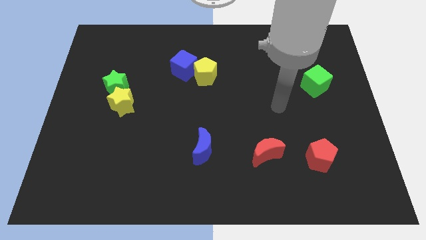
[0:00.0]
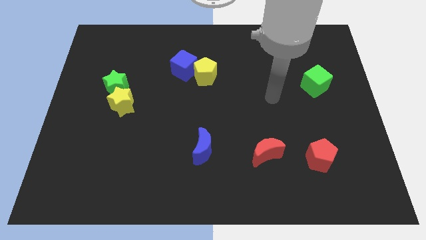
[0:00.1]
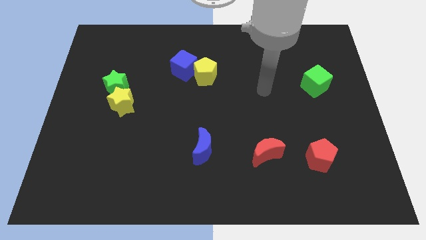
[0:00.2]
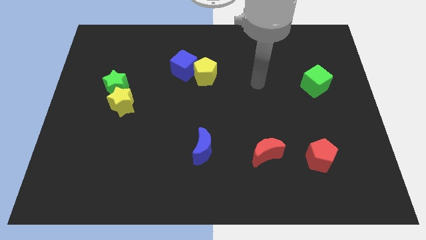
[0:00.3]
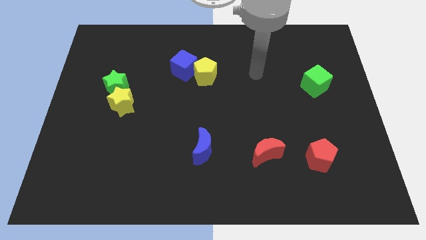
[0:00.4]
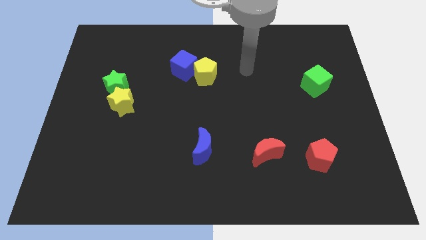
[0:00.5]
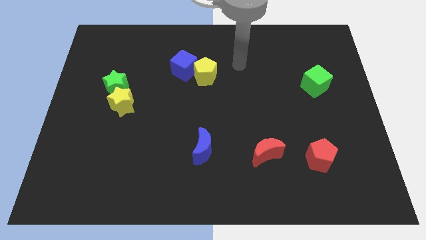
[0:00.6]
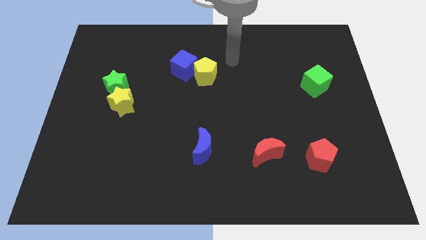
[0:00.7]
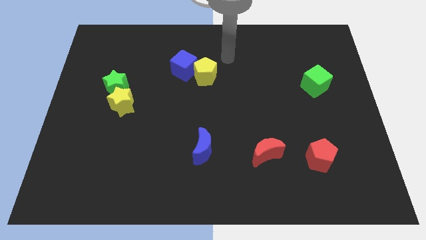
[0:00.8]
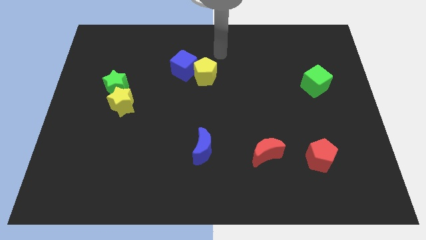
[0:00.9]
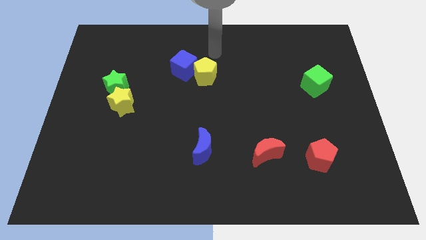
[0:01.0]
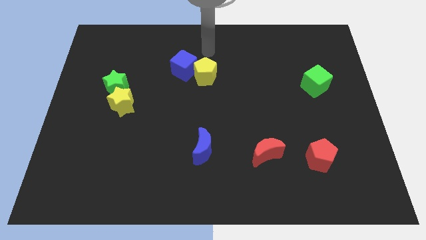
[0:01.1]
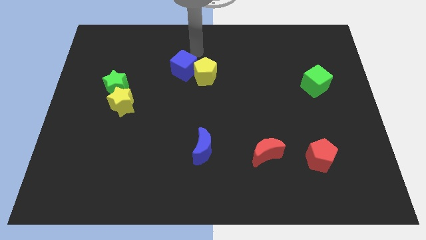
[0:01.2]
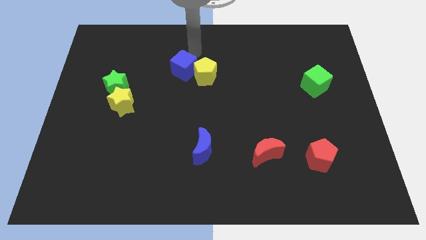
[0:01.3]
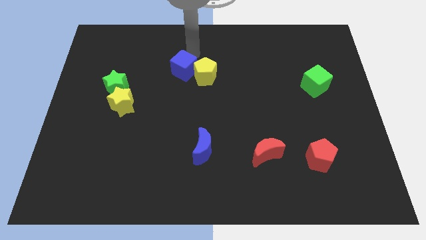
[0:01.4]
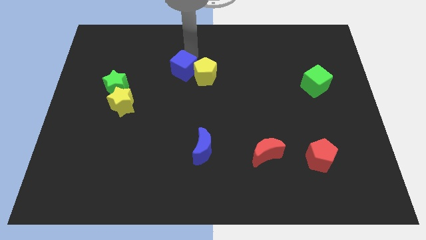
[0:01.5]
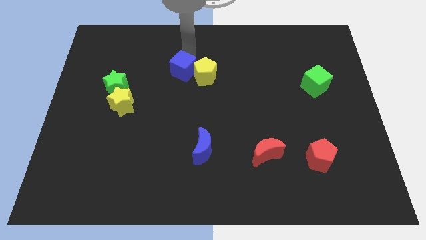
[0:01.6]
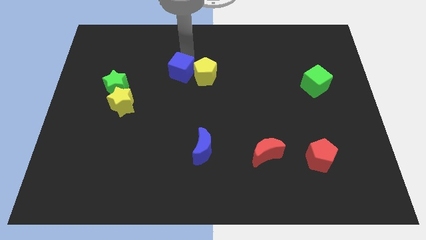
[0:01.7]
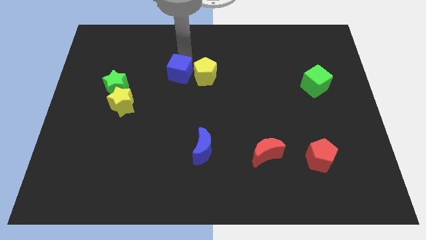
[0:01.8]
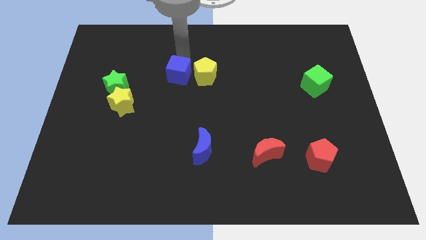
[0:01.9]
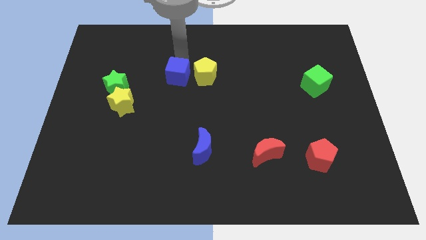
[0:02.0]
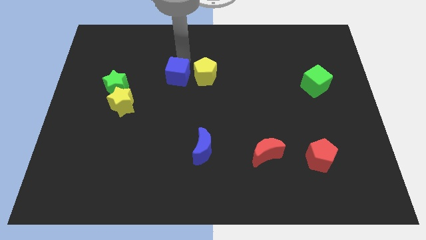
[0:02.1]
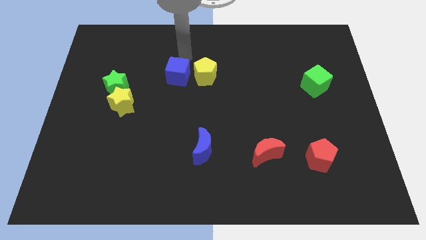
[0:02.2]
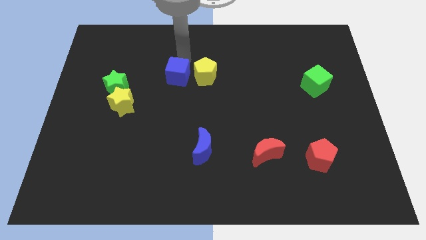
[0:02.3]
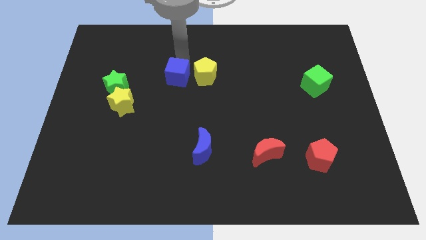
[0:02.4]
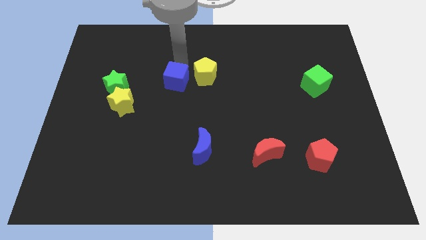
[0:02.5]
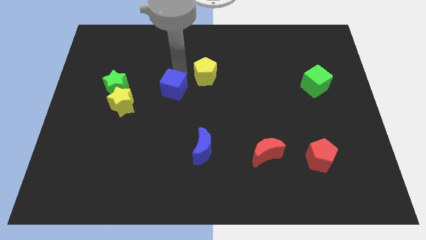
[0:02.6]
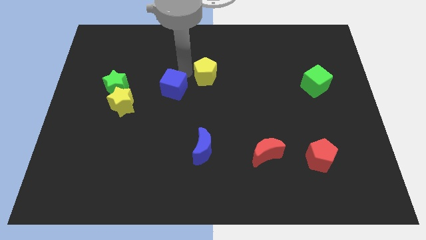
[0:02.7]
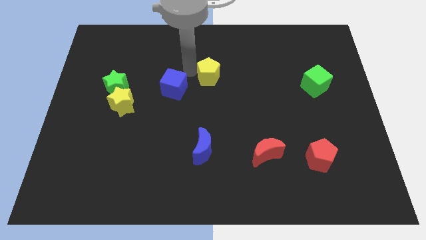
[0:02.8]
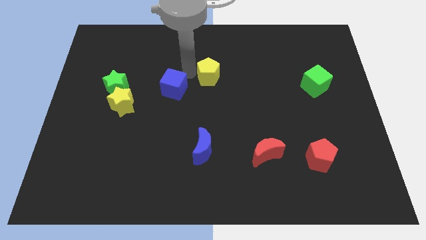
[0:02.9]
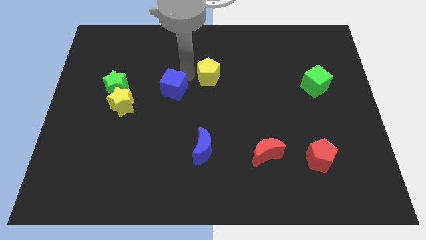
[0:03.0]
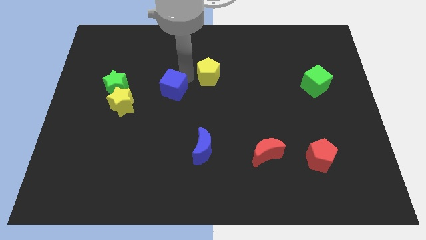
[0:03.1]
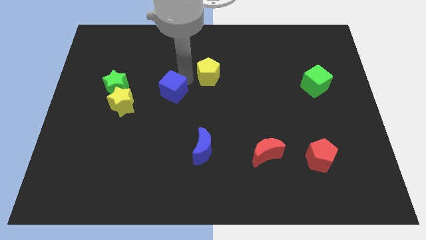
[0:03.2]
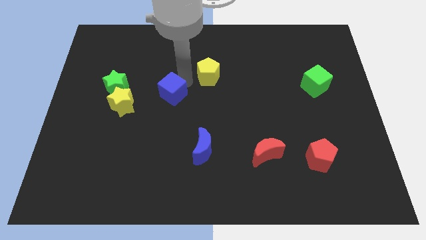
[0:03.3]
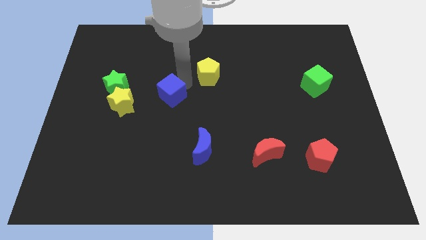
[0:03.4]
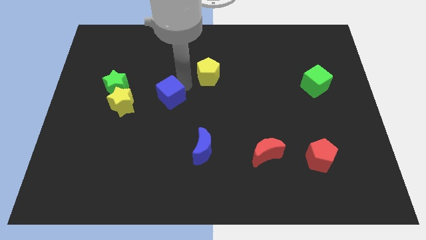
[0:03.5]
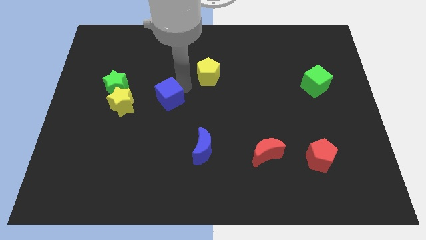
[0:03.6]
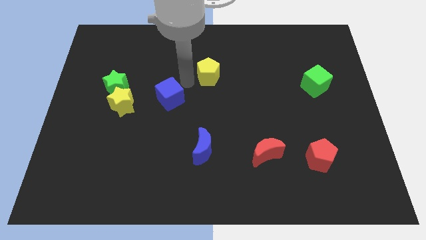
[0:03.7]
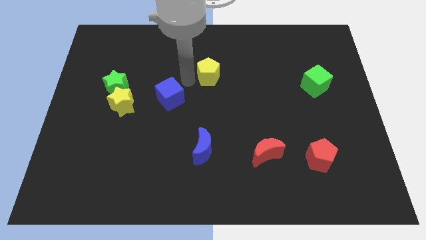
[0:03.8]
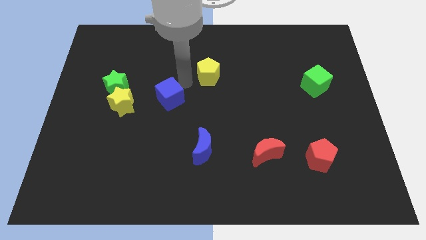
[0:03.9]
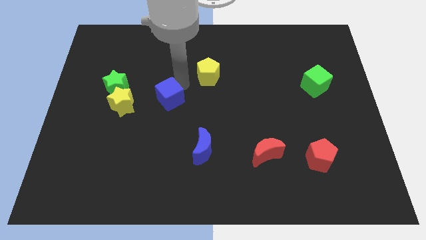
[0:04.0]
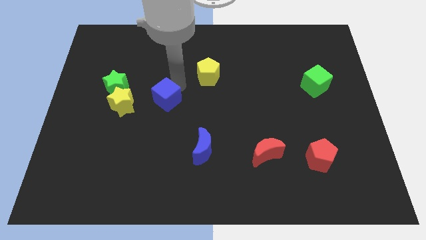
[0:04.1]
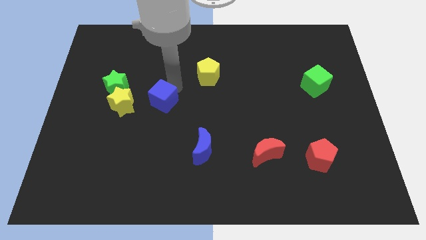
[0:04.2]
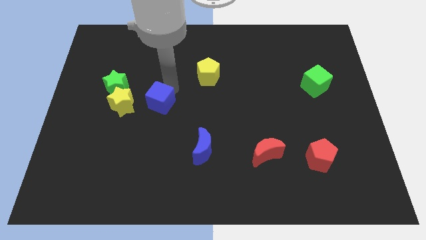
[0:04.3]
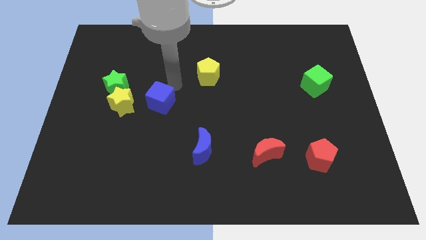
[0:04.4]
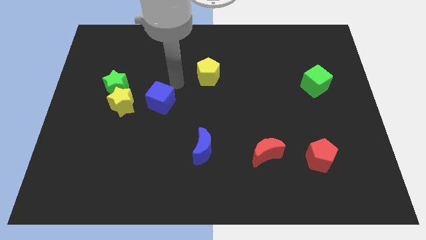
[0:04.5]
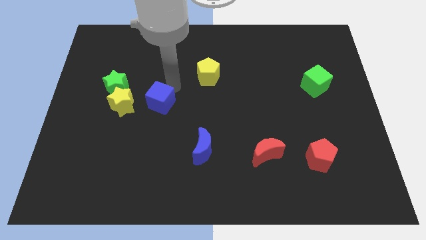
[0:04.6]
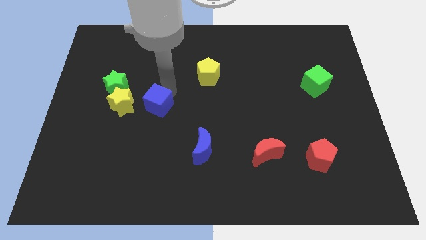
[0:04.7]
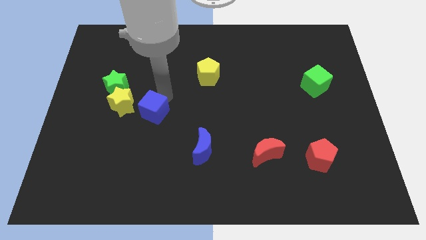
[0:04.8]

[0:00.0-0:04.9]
push the blue cube to the bottom right side of the yellow star

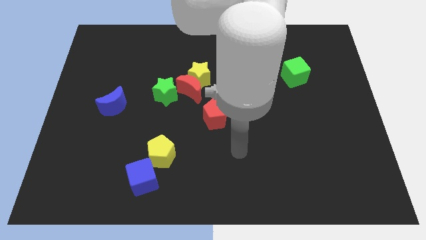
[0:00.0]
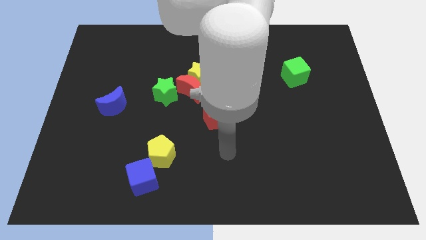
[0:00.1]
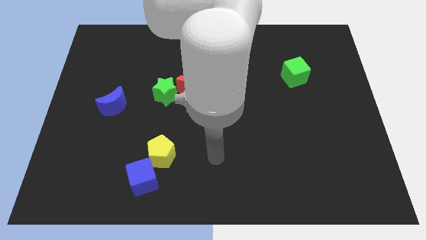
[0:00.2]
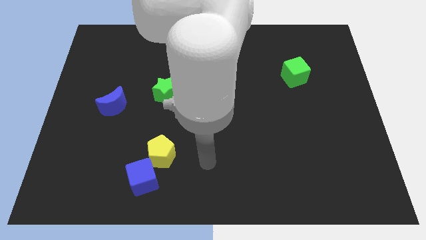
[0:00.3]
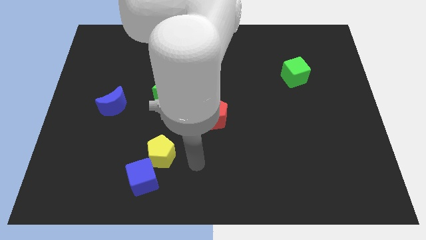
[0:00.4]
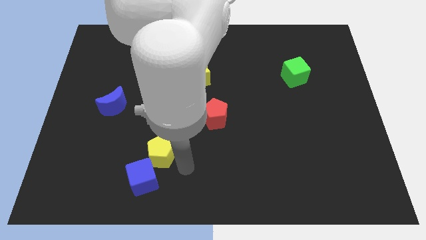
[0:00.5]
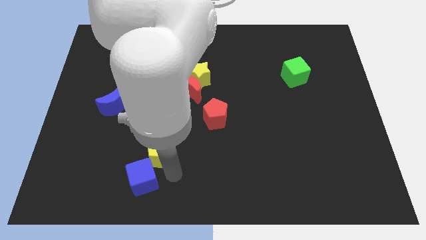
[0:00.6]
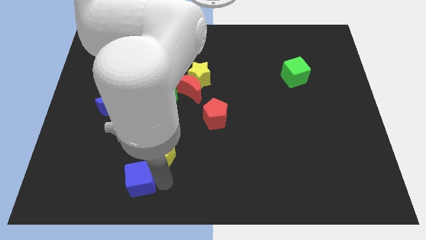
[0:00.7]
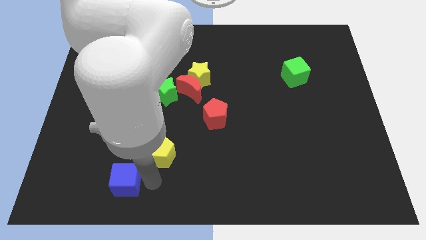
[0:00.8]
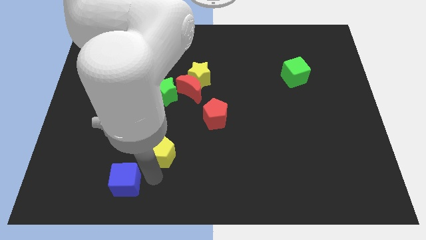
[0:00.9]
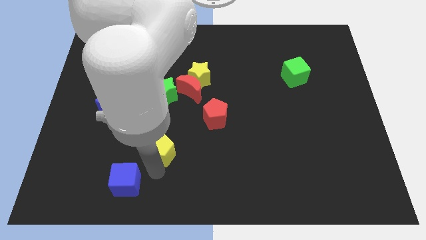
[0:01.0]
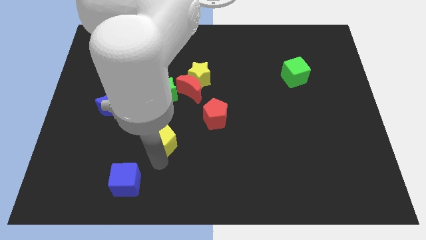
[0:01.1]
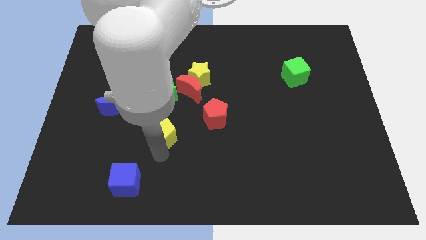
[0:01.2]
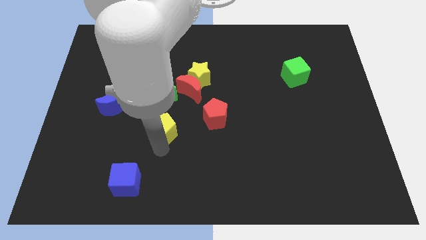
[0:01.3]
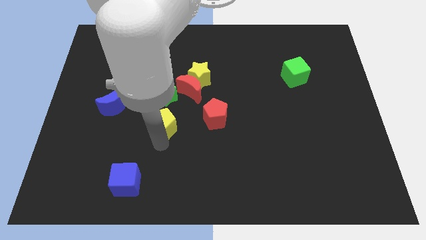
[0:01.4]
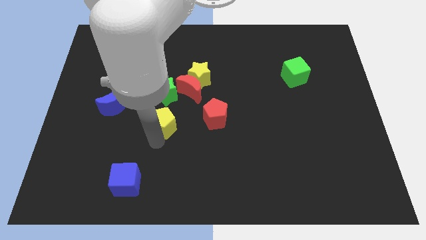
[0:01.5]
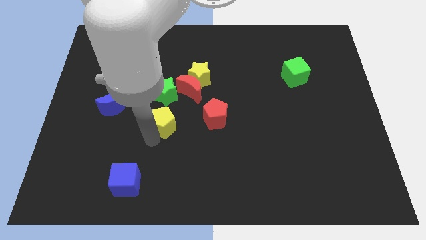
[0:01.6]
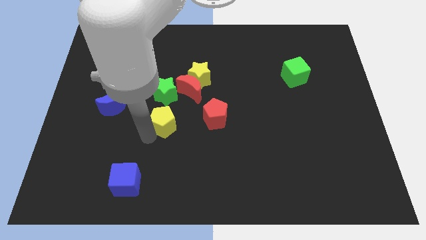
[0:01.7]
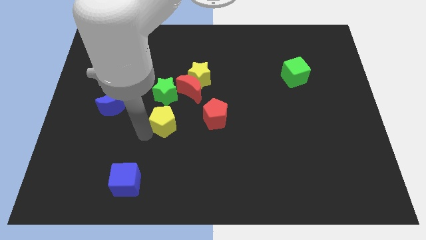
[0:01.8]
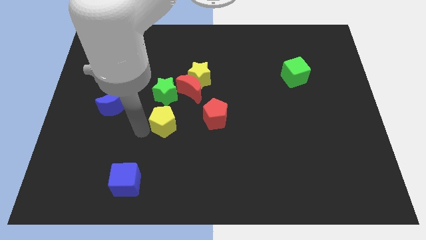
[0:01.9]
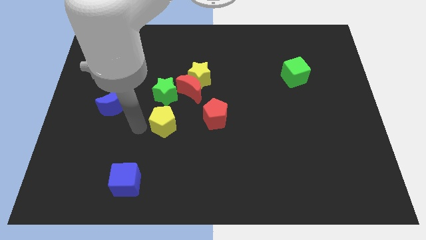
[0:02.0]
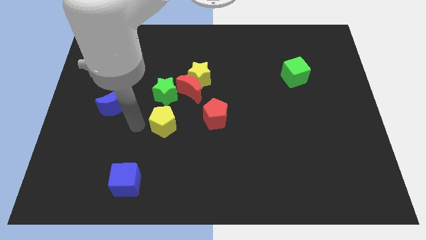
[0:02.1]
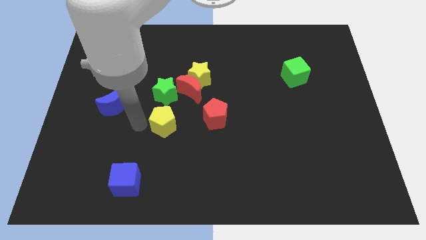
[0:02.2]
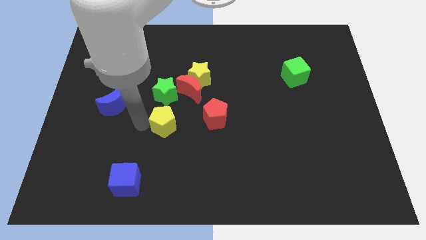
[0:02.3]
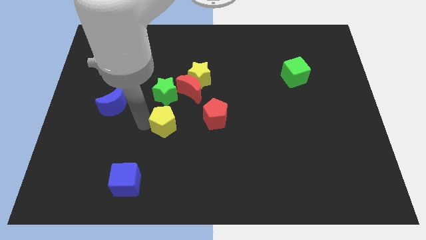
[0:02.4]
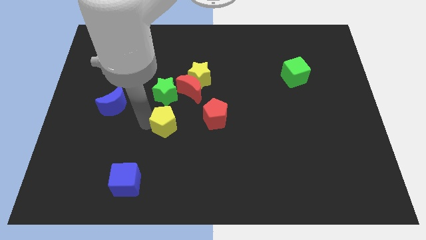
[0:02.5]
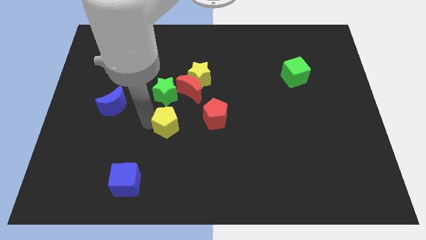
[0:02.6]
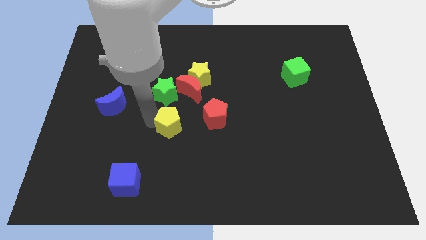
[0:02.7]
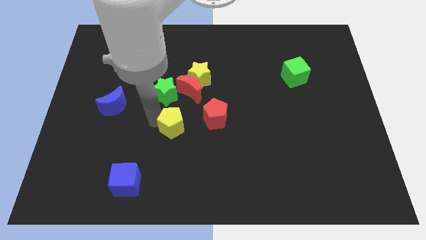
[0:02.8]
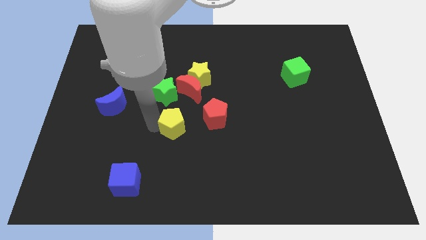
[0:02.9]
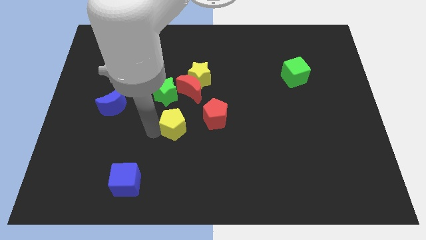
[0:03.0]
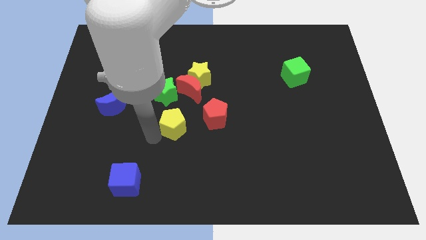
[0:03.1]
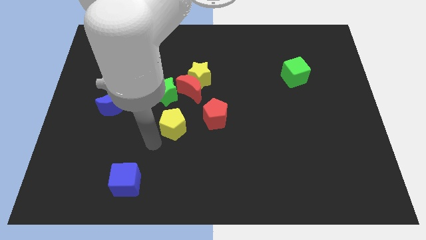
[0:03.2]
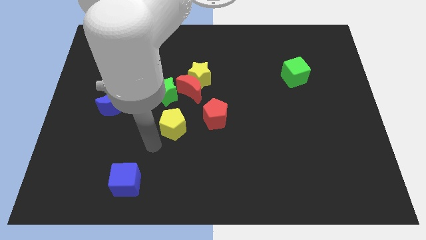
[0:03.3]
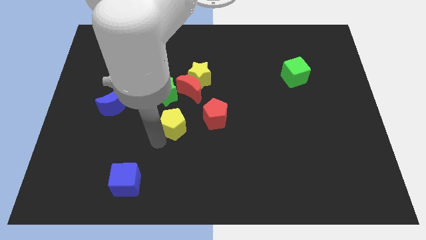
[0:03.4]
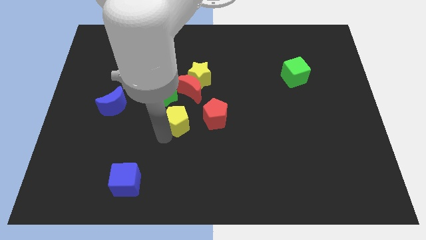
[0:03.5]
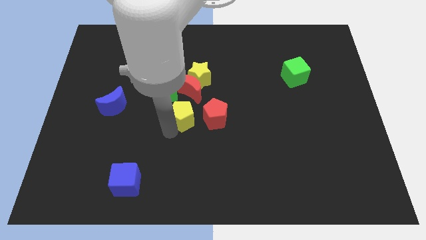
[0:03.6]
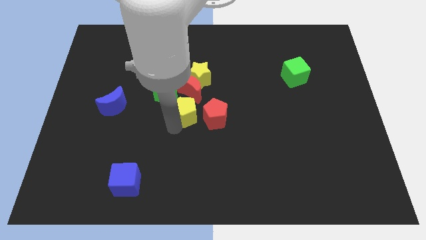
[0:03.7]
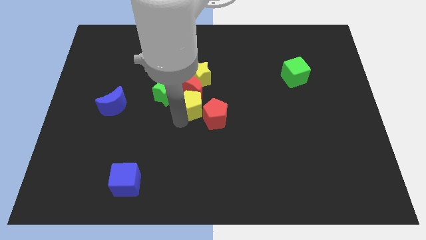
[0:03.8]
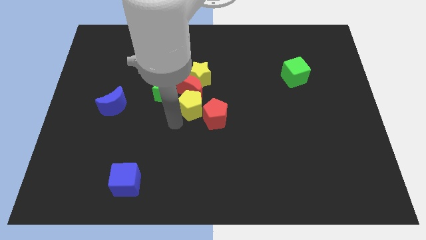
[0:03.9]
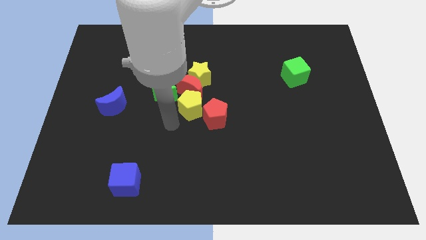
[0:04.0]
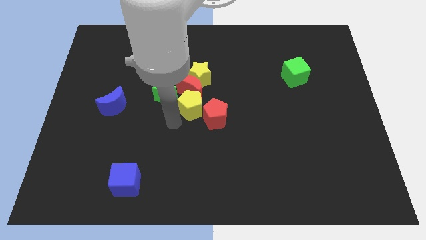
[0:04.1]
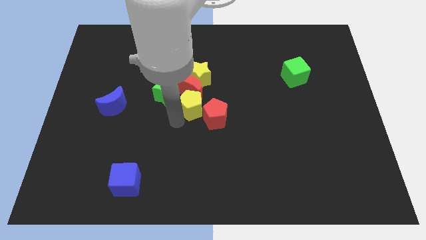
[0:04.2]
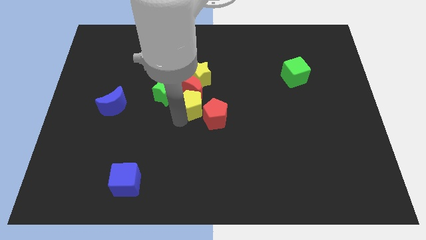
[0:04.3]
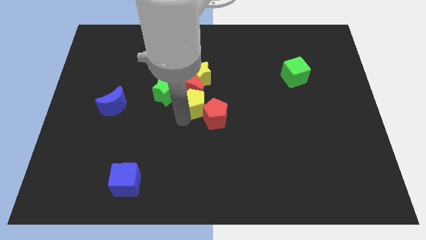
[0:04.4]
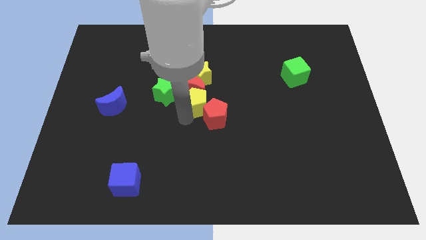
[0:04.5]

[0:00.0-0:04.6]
move the yellow pentagon to the top side of the red pentagon
